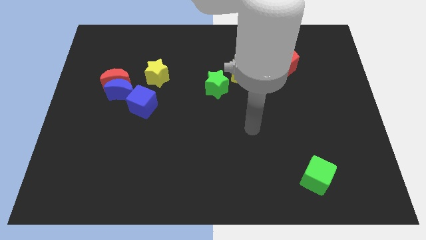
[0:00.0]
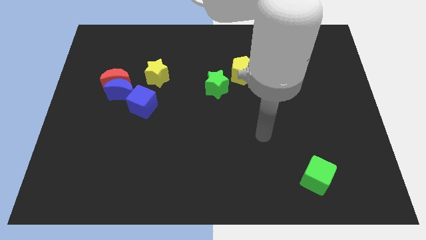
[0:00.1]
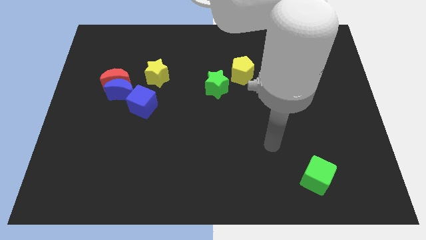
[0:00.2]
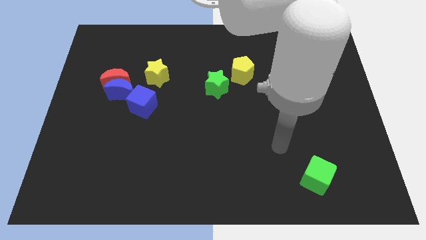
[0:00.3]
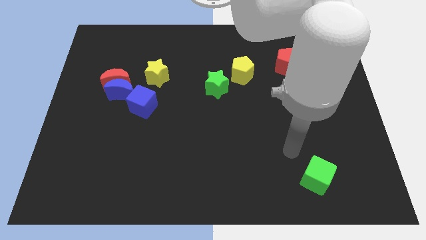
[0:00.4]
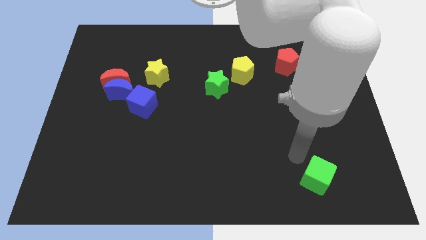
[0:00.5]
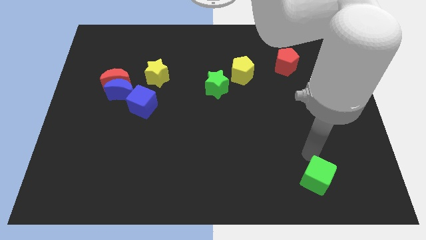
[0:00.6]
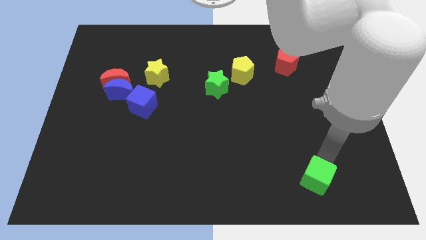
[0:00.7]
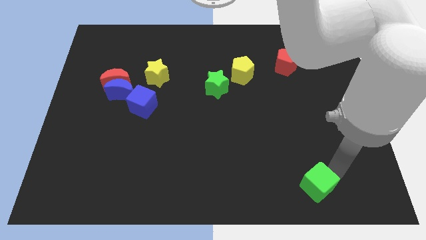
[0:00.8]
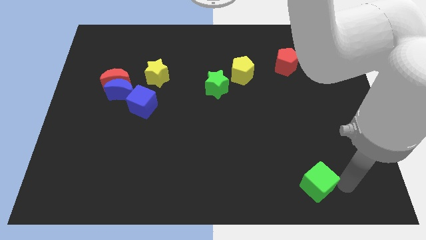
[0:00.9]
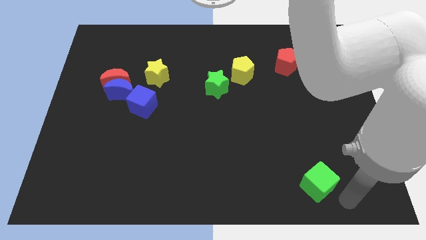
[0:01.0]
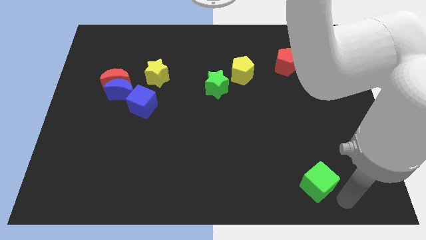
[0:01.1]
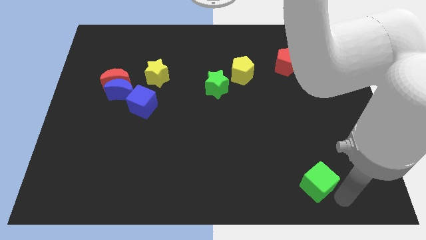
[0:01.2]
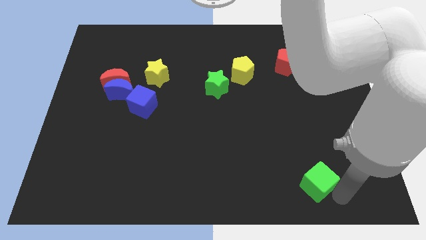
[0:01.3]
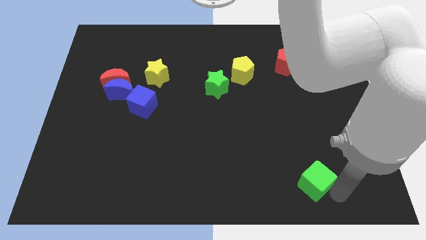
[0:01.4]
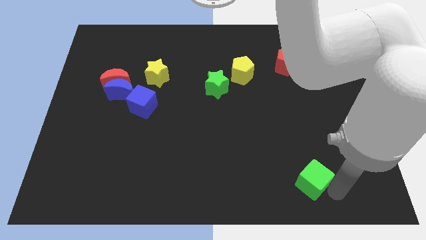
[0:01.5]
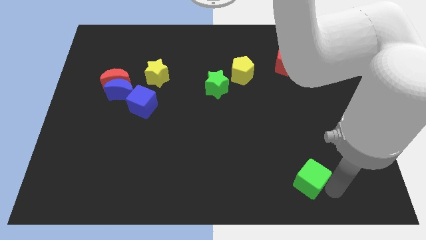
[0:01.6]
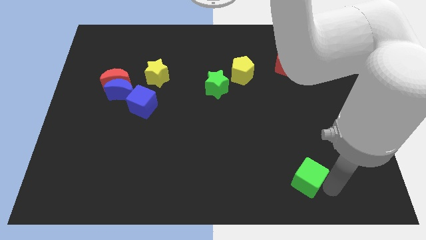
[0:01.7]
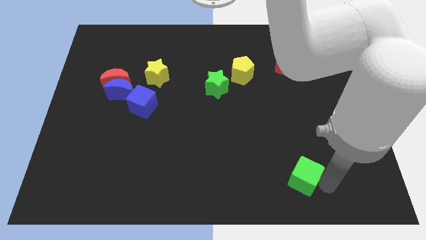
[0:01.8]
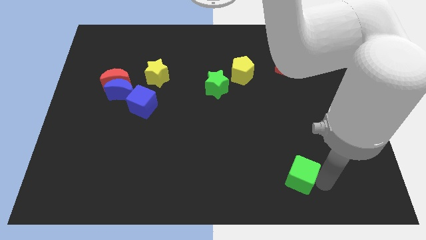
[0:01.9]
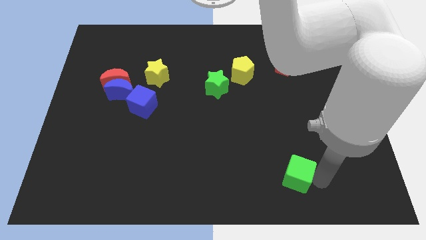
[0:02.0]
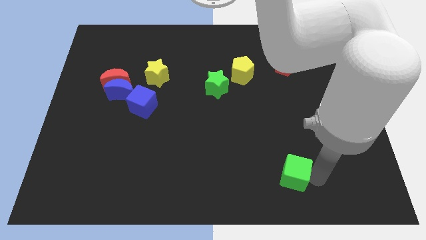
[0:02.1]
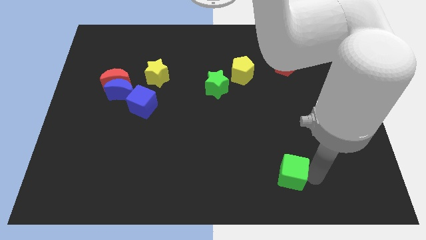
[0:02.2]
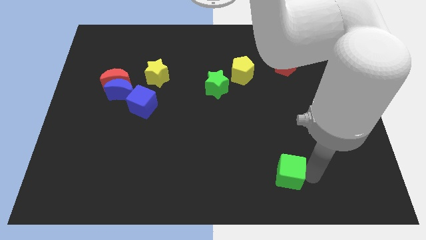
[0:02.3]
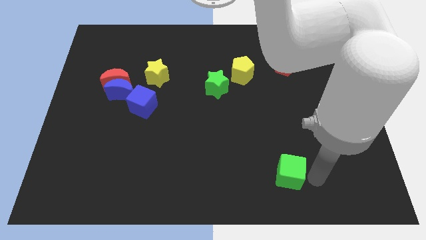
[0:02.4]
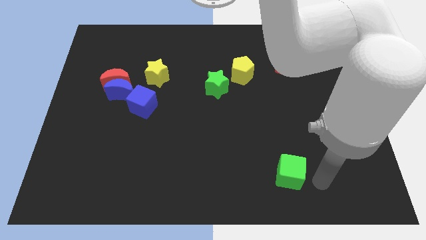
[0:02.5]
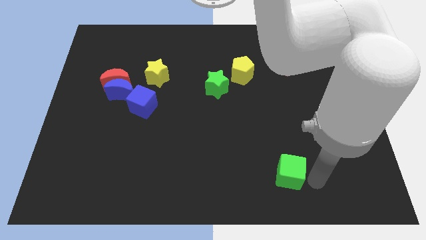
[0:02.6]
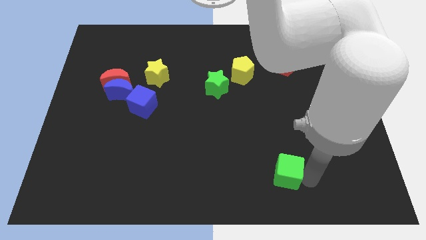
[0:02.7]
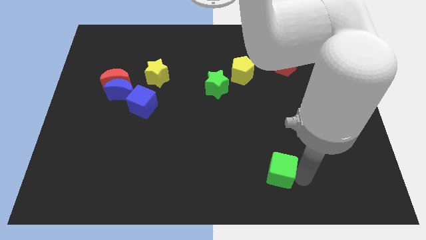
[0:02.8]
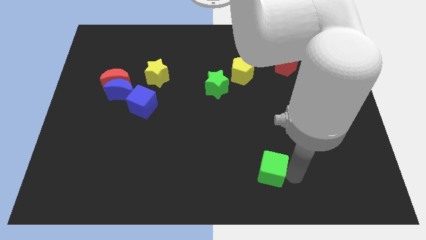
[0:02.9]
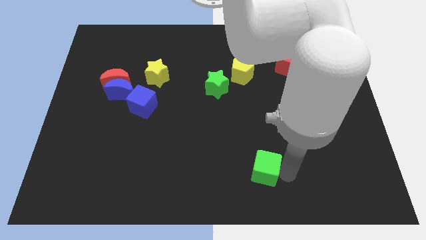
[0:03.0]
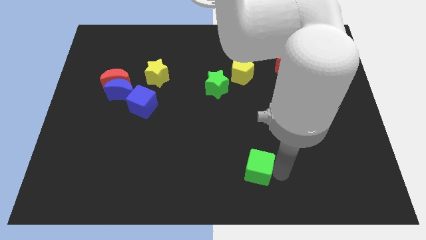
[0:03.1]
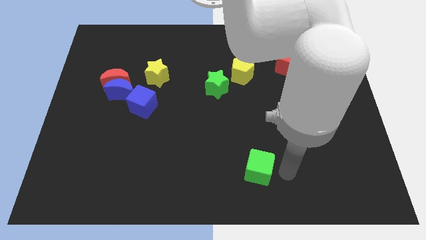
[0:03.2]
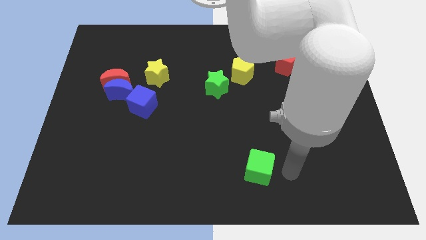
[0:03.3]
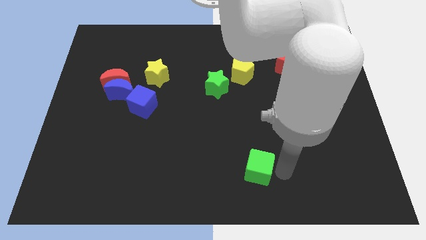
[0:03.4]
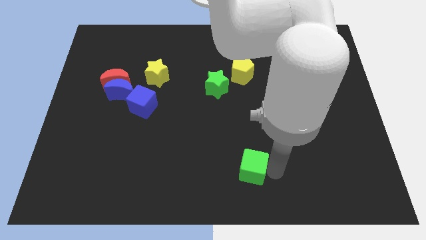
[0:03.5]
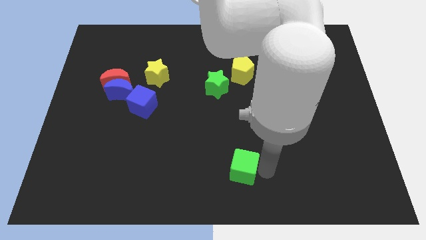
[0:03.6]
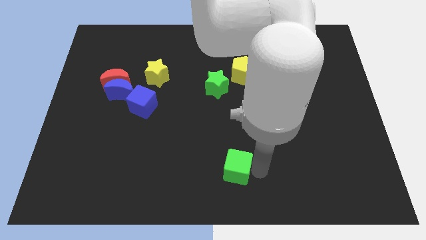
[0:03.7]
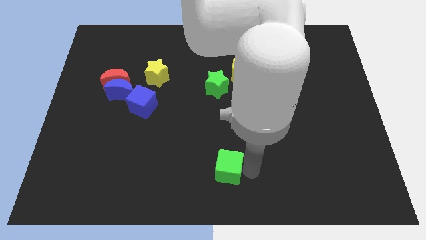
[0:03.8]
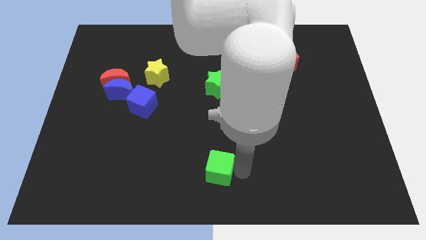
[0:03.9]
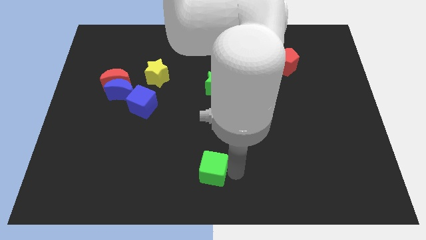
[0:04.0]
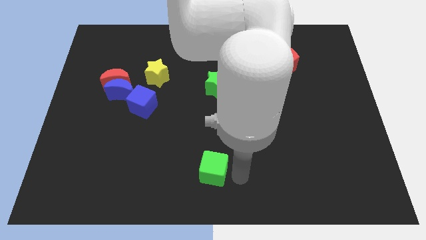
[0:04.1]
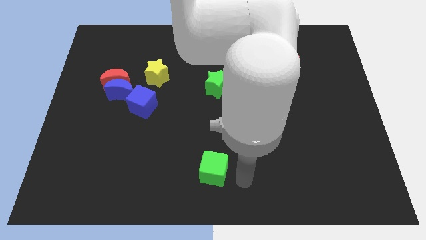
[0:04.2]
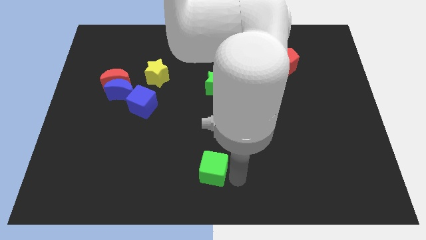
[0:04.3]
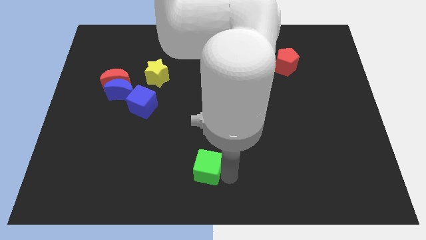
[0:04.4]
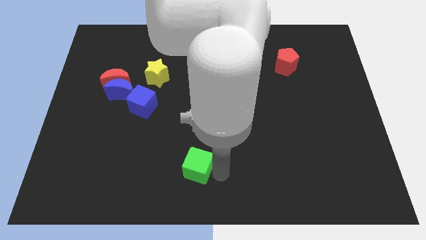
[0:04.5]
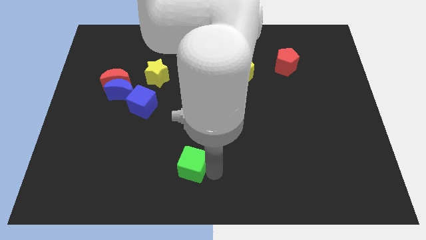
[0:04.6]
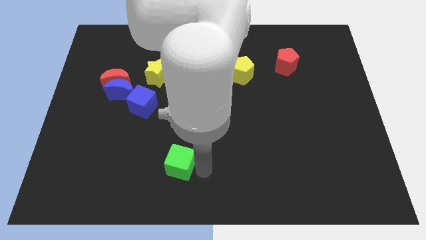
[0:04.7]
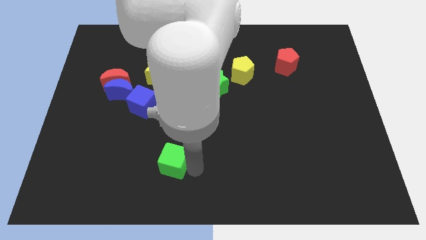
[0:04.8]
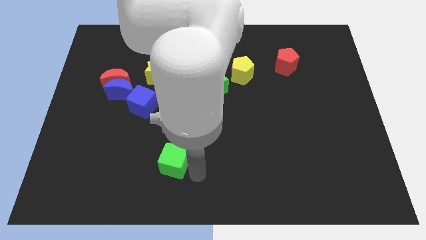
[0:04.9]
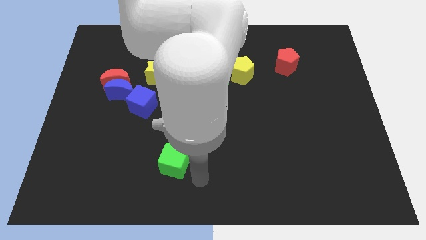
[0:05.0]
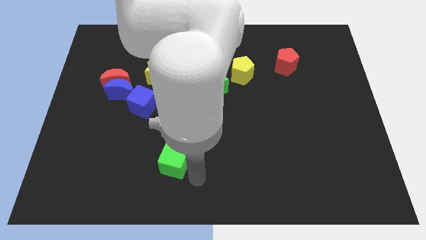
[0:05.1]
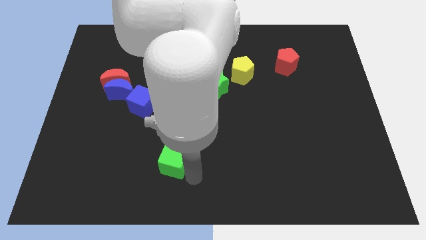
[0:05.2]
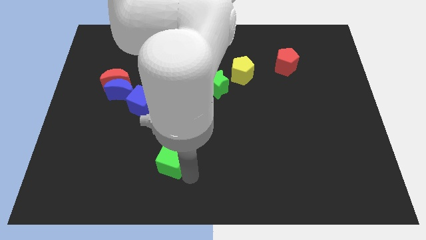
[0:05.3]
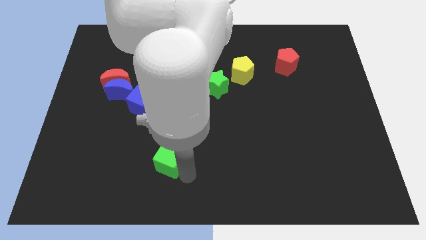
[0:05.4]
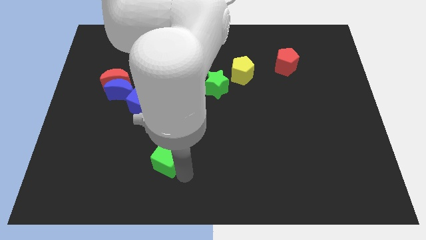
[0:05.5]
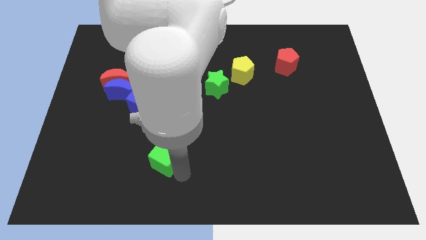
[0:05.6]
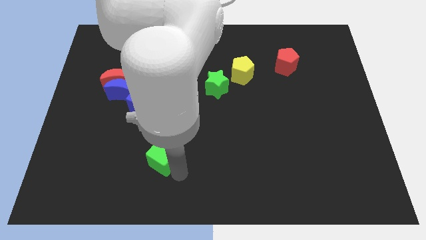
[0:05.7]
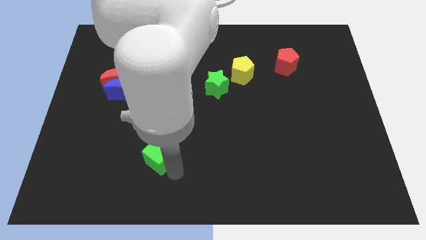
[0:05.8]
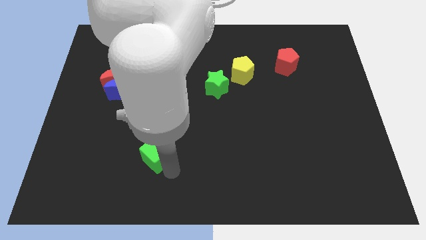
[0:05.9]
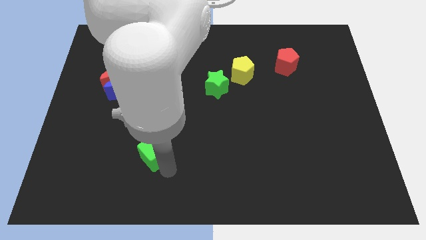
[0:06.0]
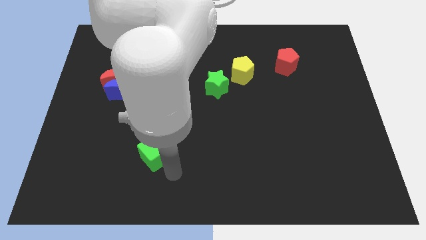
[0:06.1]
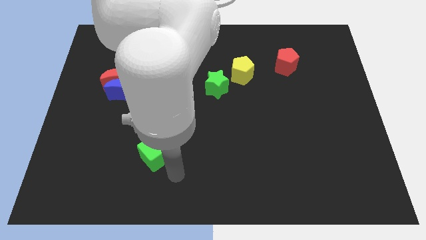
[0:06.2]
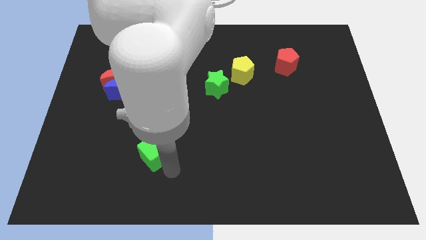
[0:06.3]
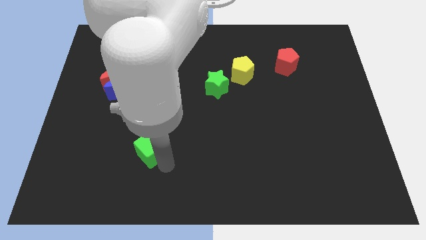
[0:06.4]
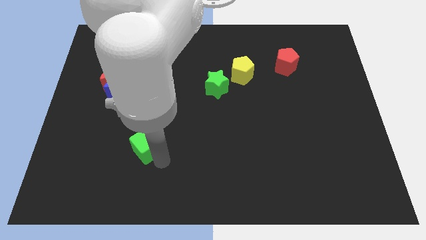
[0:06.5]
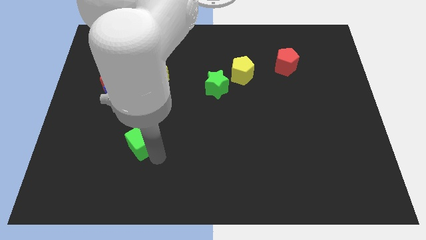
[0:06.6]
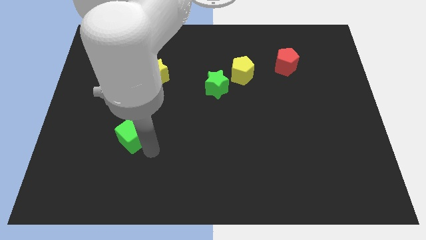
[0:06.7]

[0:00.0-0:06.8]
put the green cube to the bottom side of the blue moon

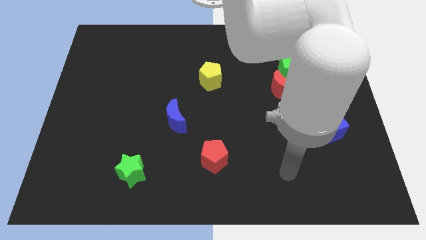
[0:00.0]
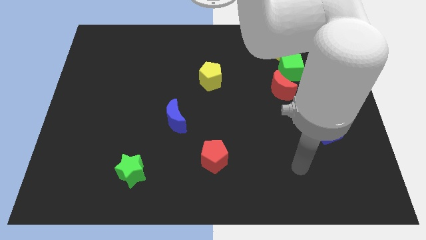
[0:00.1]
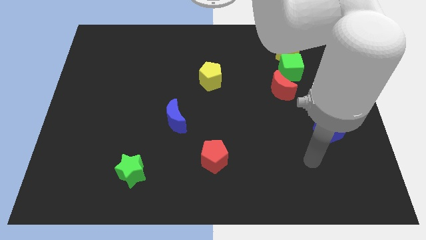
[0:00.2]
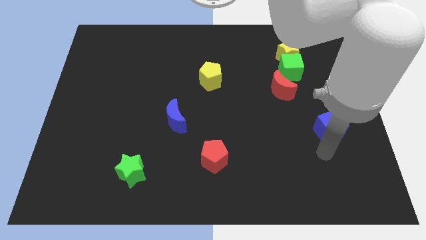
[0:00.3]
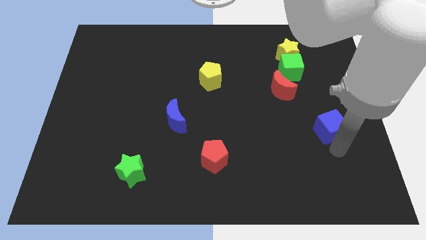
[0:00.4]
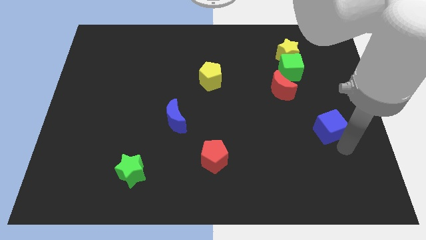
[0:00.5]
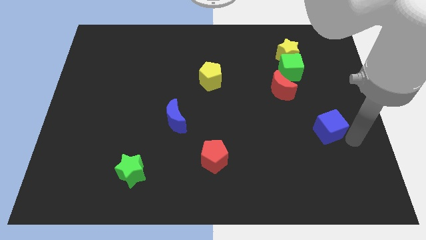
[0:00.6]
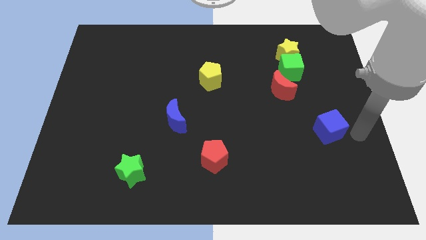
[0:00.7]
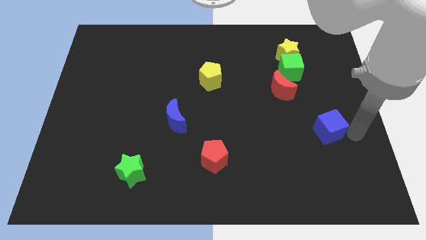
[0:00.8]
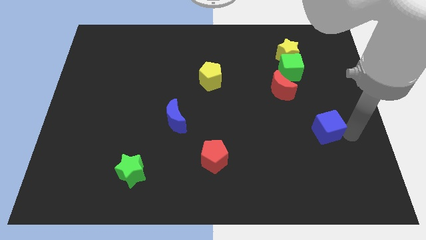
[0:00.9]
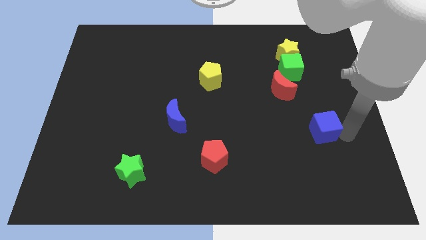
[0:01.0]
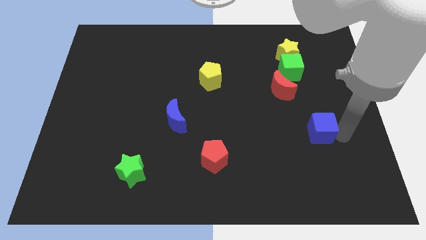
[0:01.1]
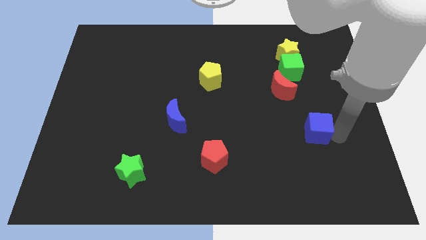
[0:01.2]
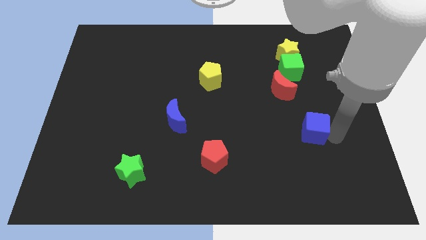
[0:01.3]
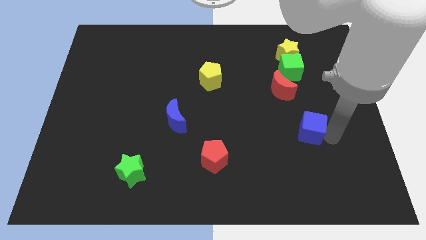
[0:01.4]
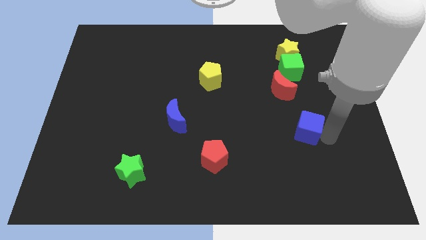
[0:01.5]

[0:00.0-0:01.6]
slide the blue cube to the bottom side of the red moon
